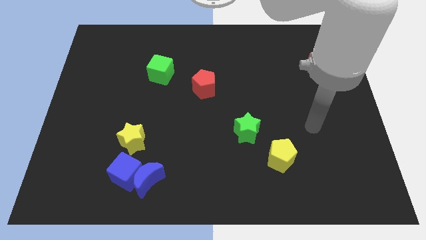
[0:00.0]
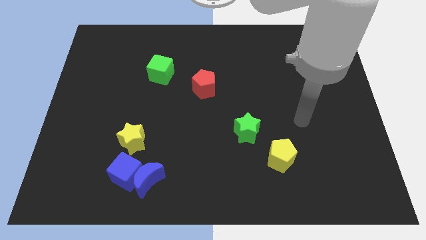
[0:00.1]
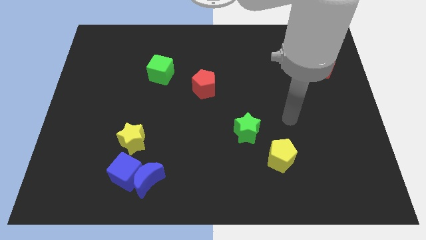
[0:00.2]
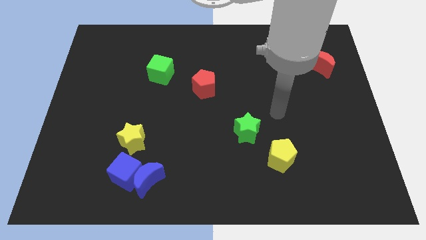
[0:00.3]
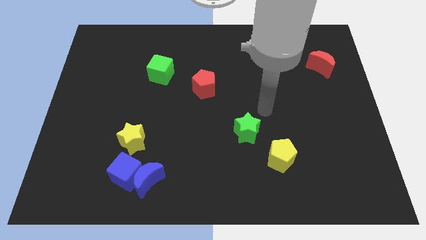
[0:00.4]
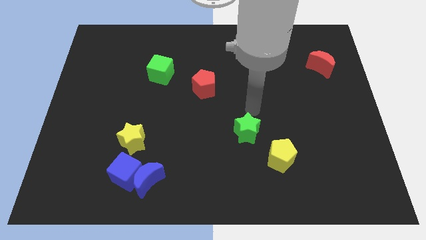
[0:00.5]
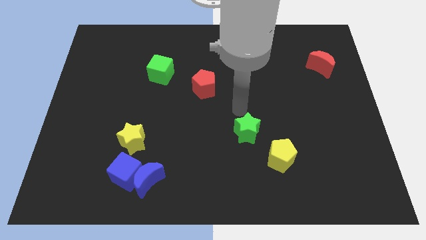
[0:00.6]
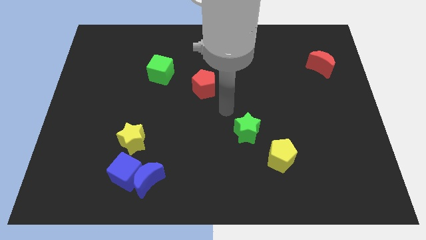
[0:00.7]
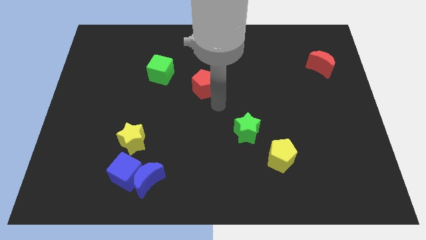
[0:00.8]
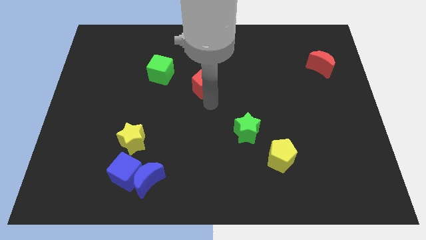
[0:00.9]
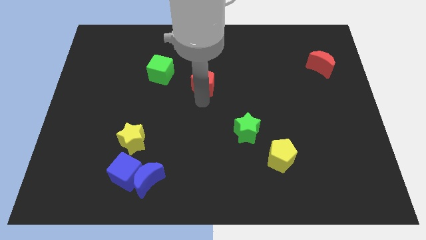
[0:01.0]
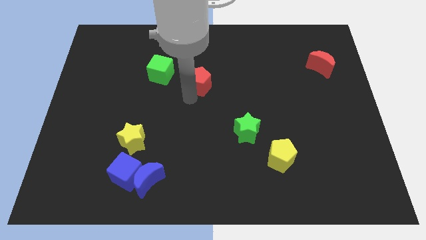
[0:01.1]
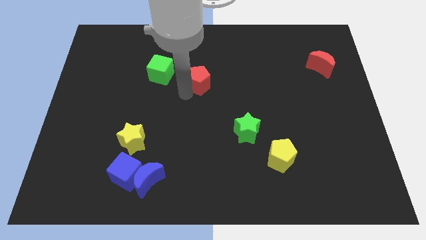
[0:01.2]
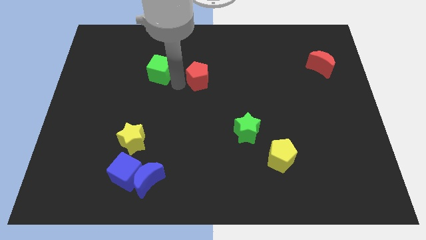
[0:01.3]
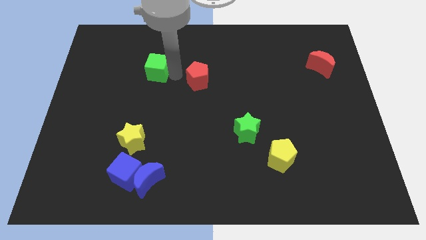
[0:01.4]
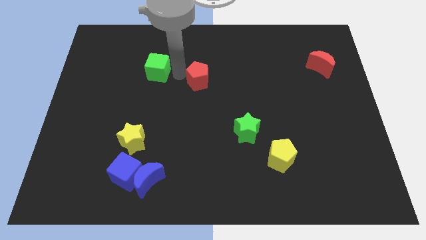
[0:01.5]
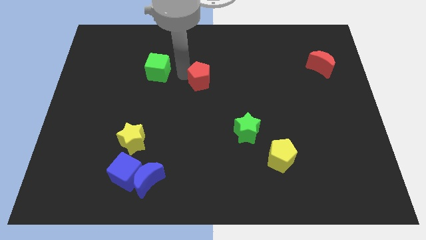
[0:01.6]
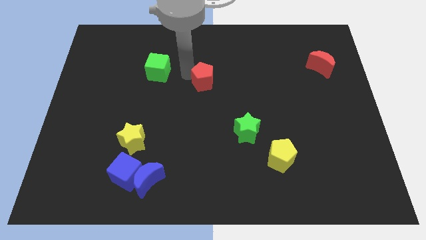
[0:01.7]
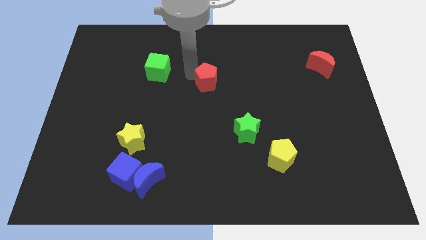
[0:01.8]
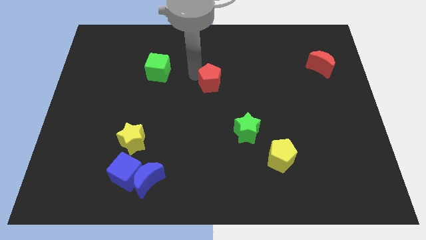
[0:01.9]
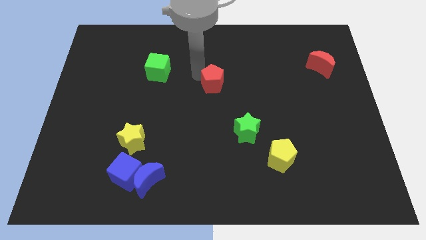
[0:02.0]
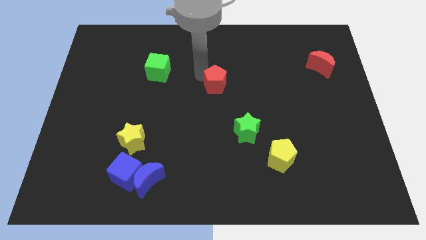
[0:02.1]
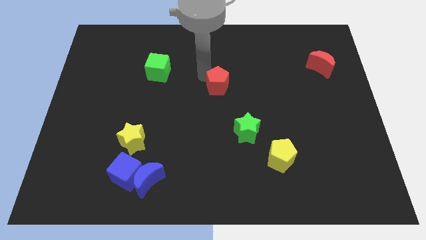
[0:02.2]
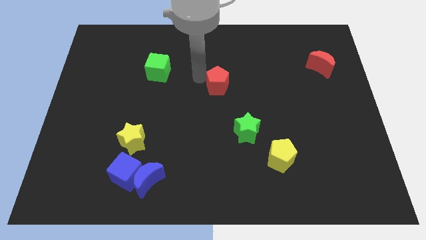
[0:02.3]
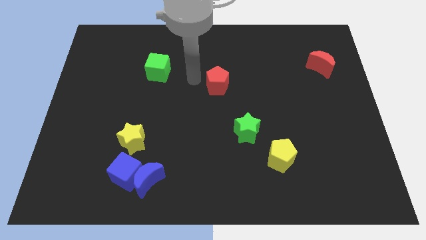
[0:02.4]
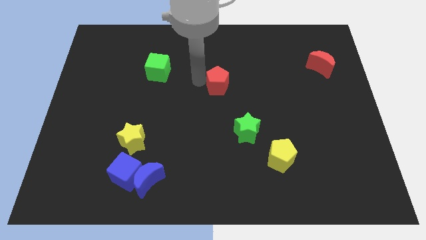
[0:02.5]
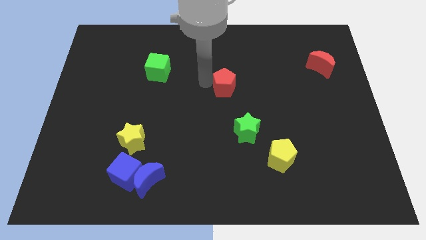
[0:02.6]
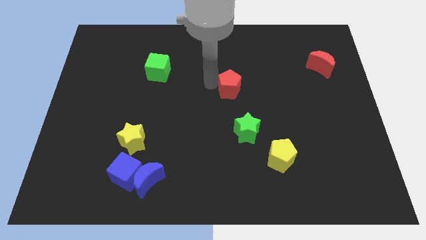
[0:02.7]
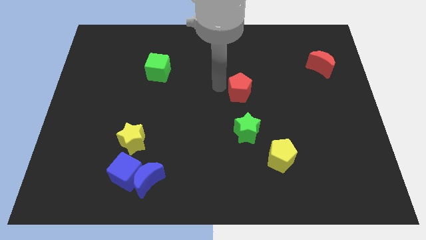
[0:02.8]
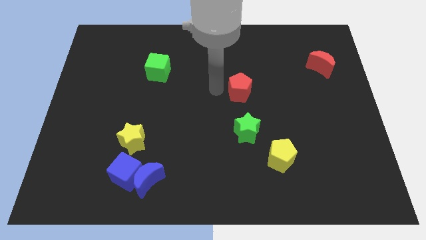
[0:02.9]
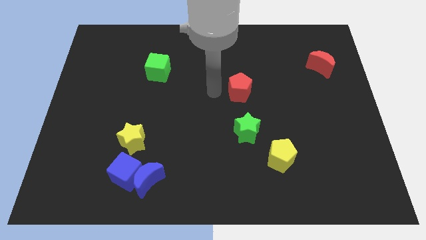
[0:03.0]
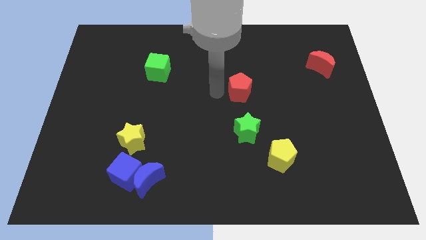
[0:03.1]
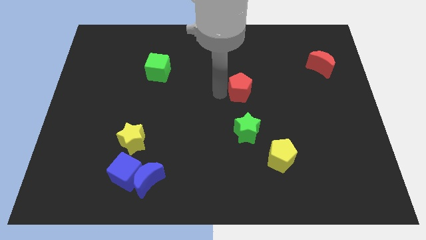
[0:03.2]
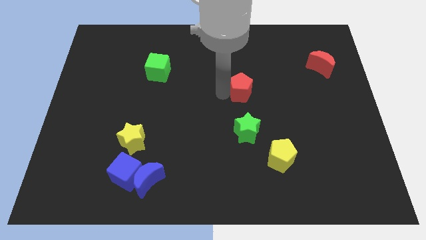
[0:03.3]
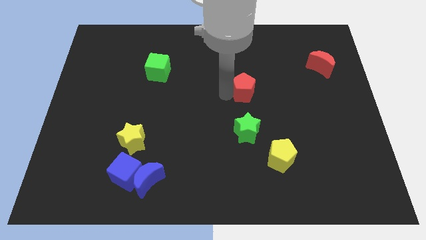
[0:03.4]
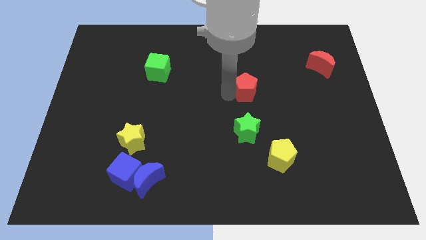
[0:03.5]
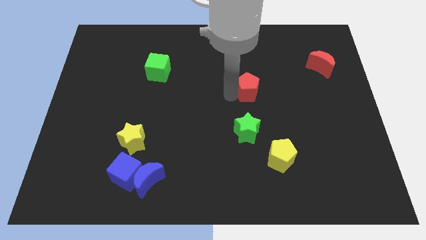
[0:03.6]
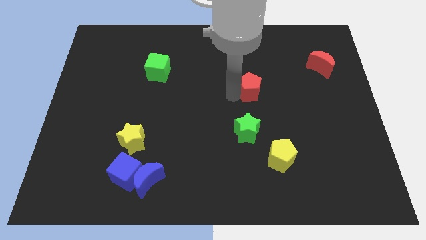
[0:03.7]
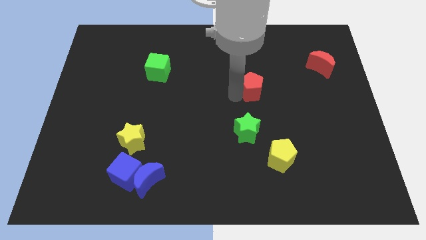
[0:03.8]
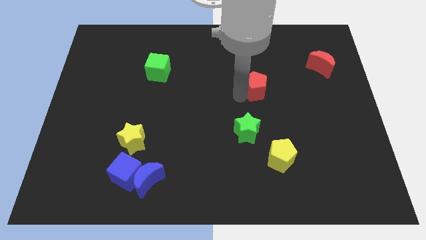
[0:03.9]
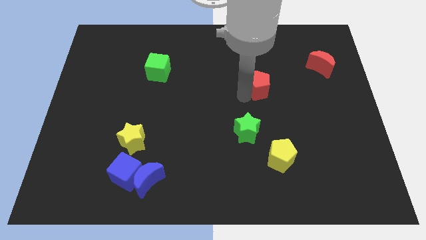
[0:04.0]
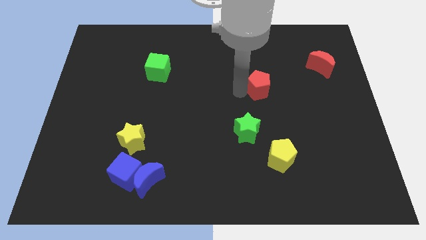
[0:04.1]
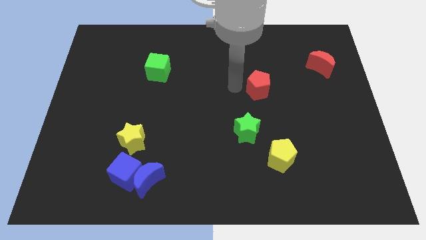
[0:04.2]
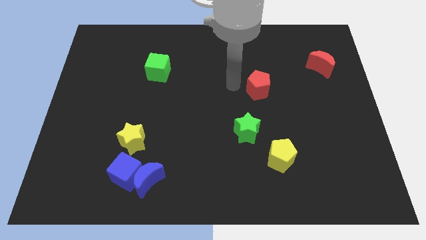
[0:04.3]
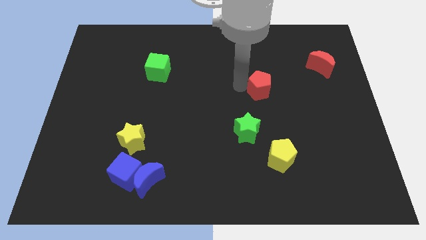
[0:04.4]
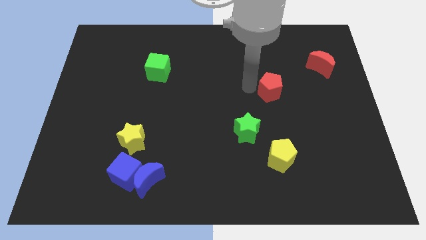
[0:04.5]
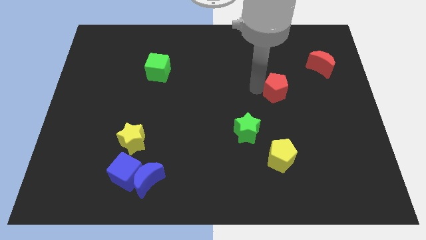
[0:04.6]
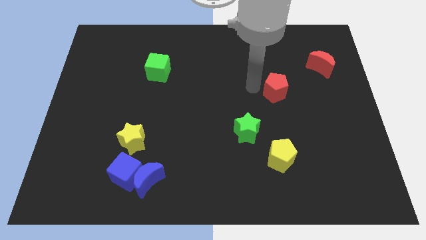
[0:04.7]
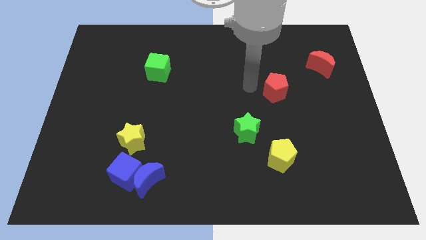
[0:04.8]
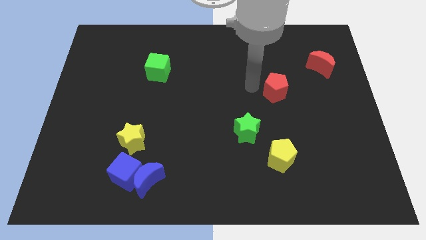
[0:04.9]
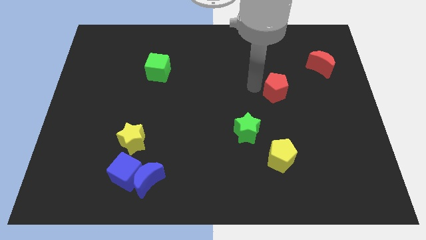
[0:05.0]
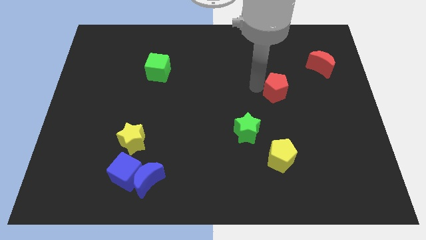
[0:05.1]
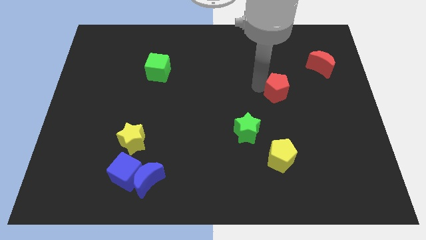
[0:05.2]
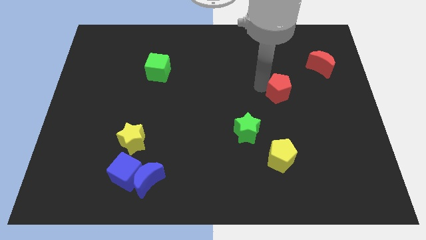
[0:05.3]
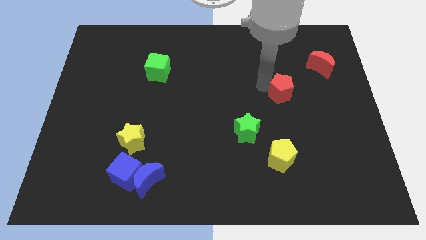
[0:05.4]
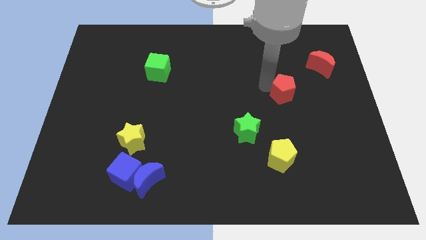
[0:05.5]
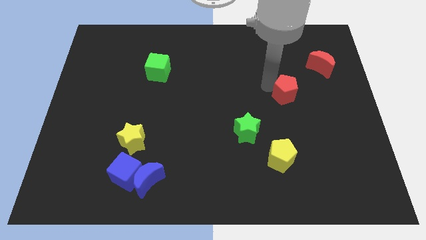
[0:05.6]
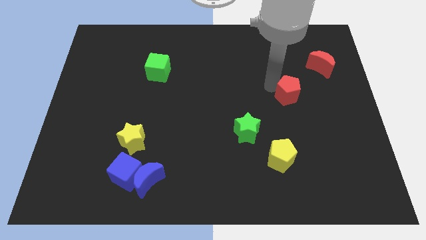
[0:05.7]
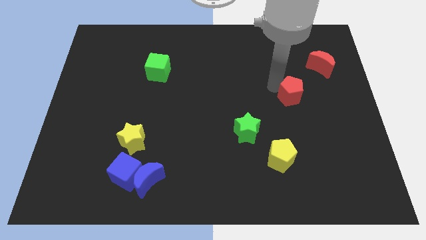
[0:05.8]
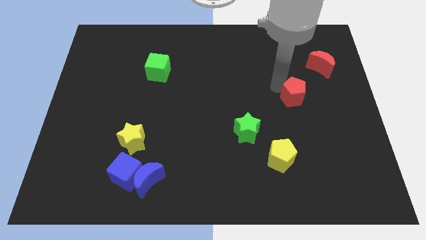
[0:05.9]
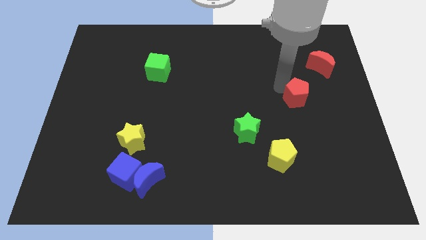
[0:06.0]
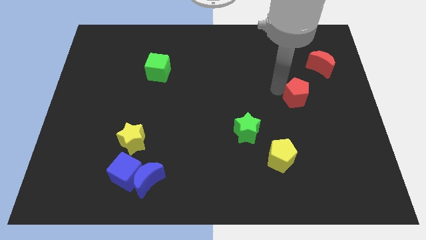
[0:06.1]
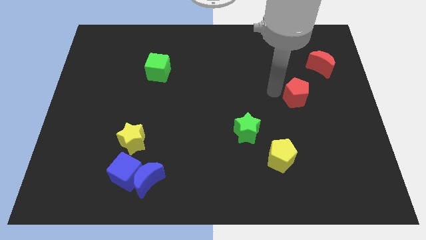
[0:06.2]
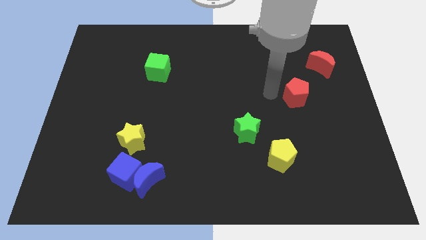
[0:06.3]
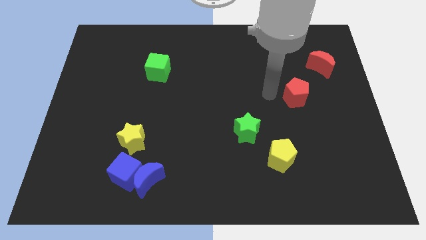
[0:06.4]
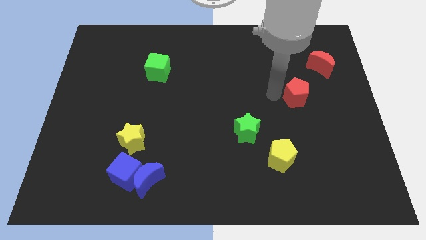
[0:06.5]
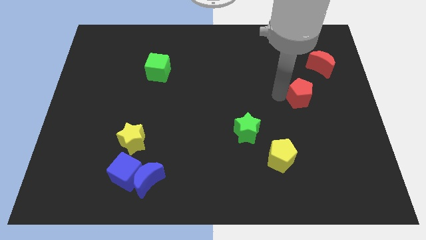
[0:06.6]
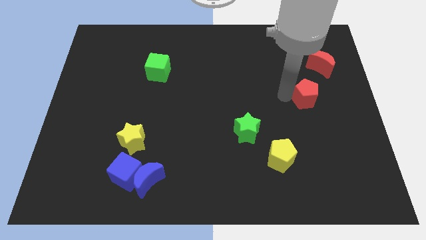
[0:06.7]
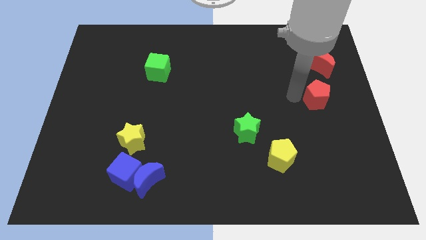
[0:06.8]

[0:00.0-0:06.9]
move the red pentagon to the right side of the board
